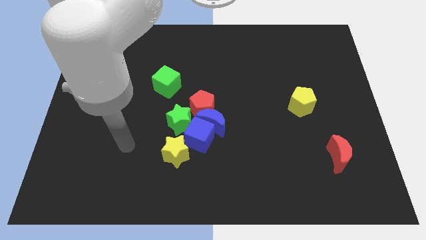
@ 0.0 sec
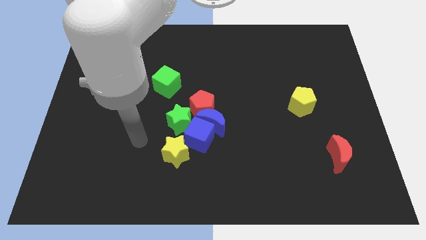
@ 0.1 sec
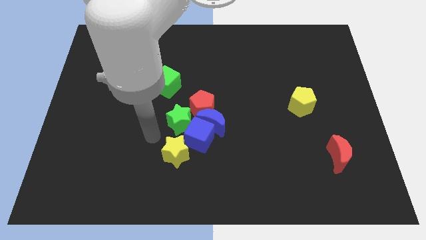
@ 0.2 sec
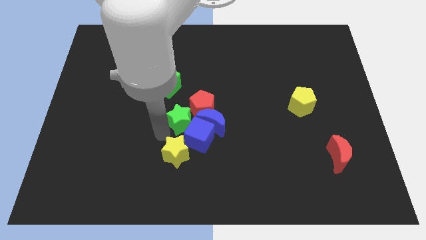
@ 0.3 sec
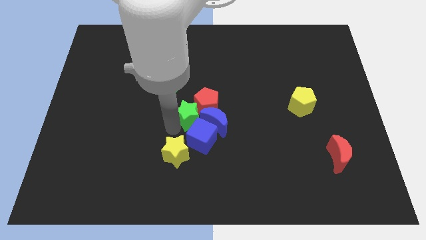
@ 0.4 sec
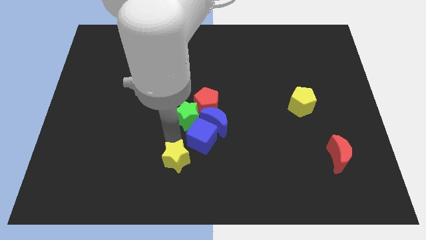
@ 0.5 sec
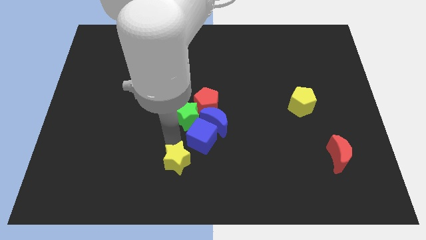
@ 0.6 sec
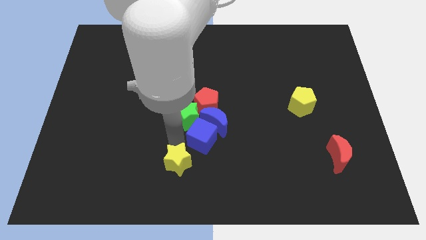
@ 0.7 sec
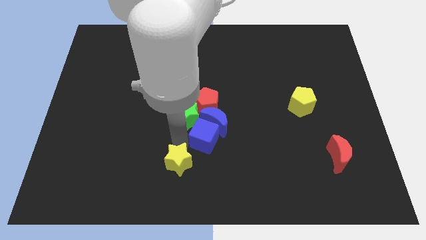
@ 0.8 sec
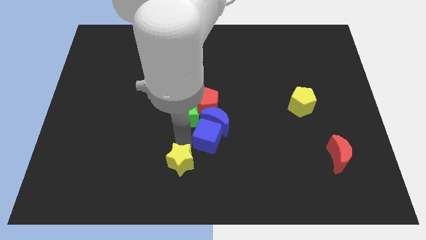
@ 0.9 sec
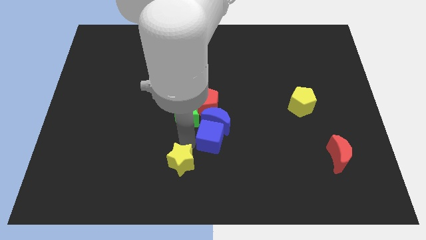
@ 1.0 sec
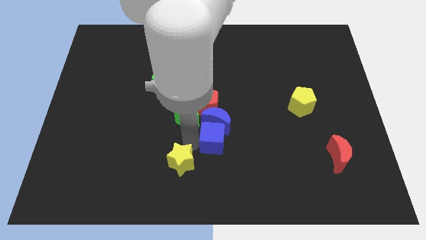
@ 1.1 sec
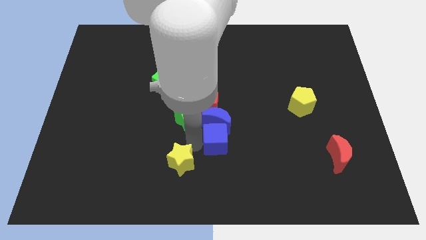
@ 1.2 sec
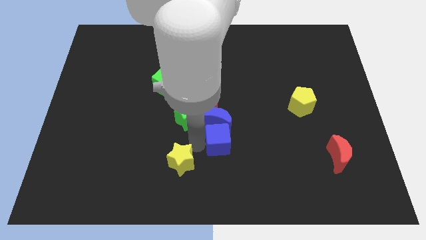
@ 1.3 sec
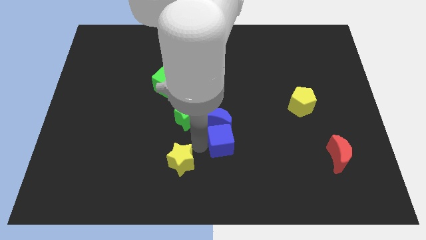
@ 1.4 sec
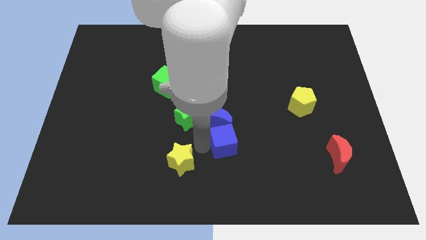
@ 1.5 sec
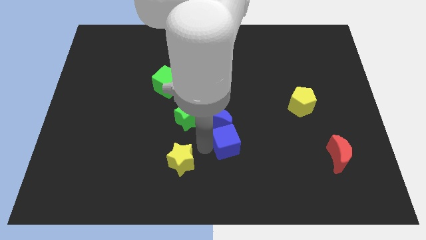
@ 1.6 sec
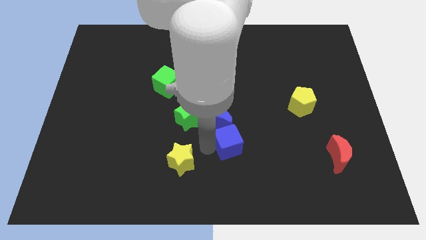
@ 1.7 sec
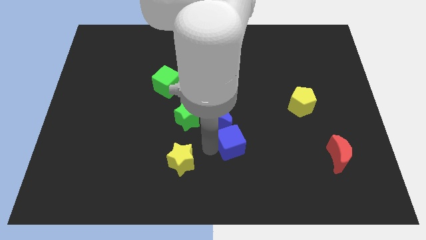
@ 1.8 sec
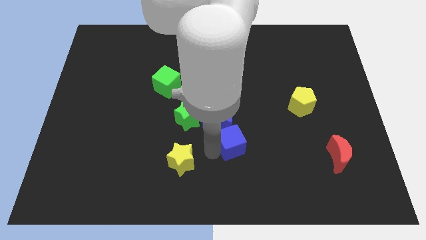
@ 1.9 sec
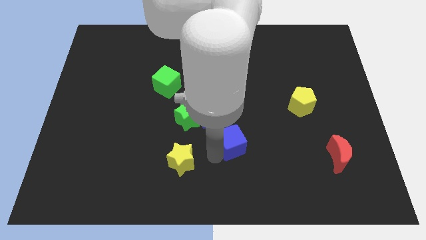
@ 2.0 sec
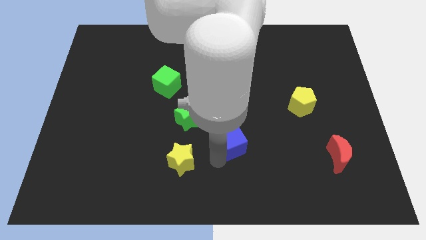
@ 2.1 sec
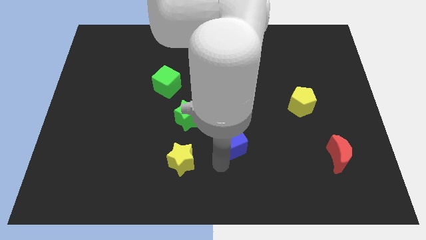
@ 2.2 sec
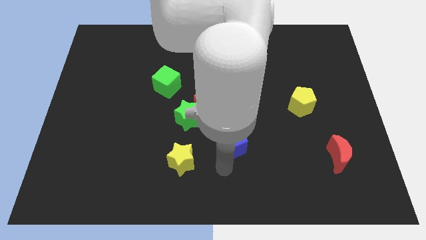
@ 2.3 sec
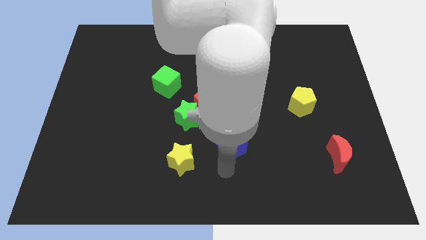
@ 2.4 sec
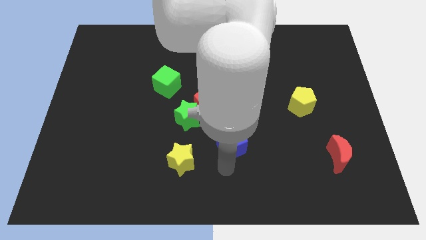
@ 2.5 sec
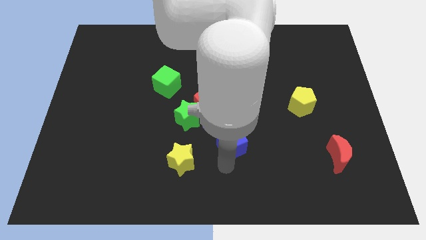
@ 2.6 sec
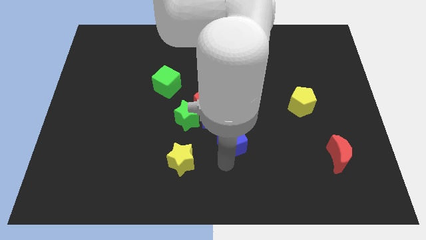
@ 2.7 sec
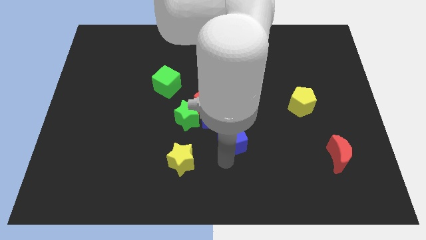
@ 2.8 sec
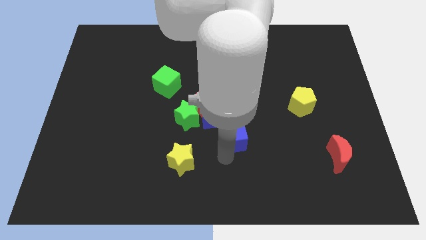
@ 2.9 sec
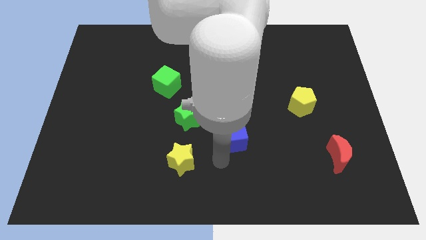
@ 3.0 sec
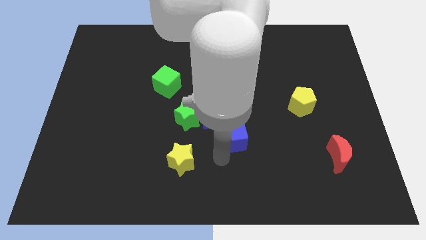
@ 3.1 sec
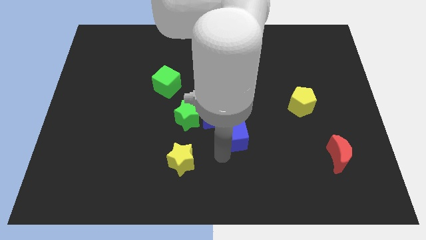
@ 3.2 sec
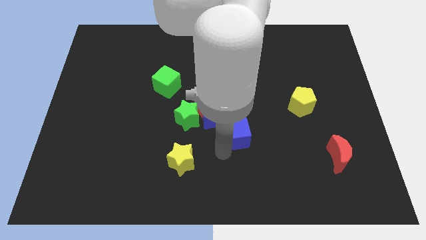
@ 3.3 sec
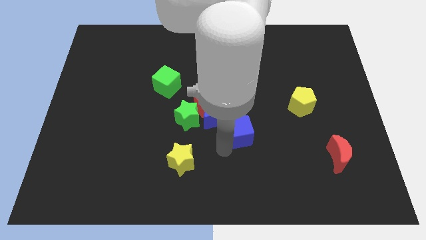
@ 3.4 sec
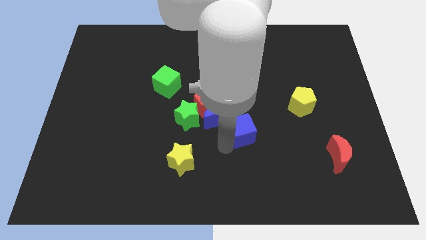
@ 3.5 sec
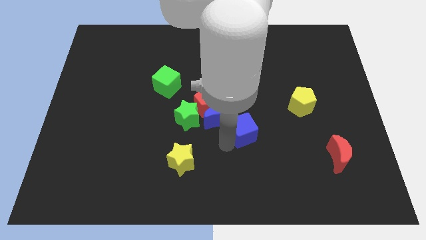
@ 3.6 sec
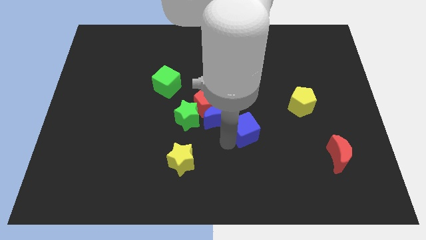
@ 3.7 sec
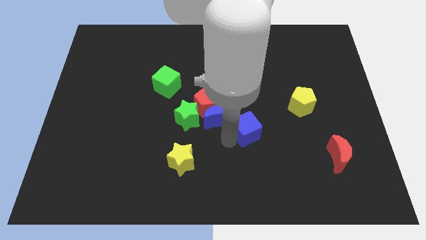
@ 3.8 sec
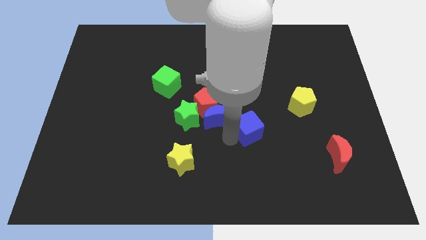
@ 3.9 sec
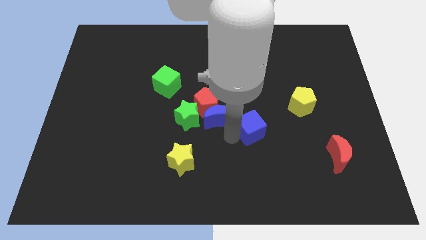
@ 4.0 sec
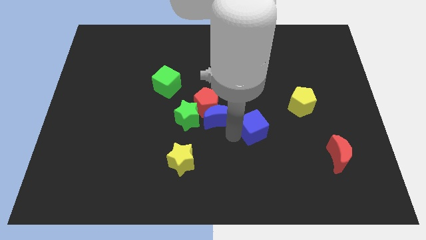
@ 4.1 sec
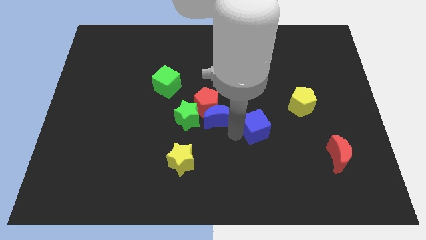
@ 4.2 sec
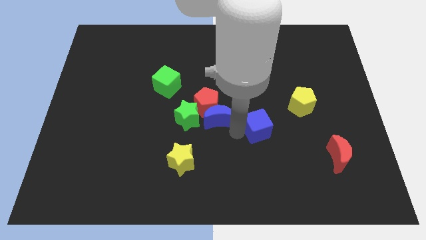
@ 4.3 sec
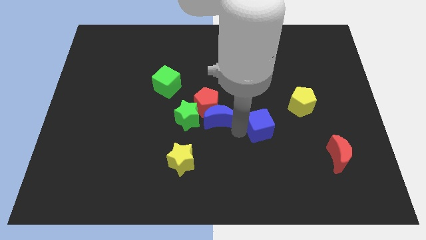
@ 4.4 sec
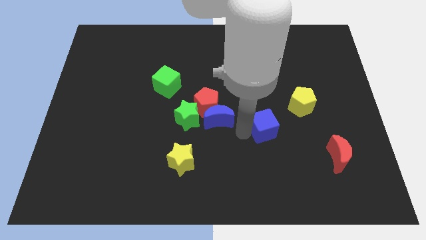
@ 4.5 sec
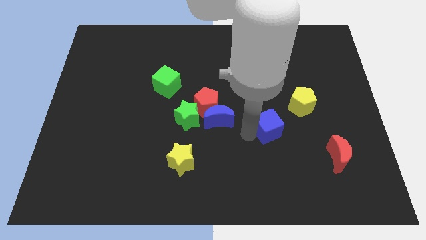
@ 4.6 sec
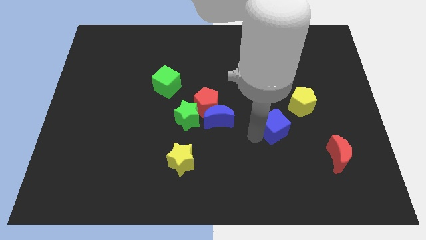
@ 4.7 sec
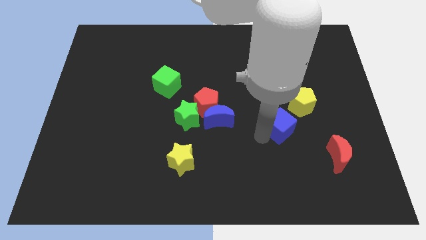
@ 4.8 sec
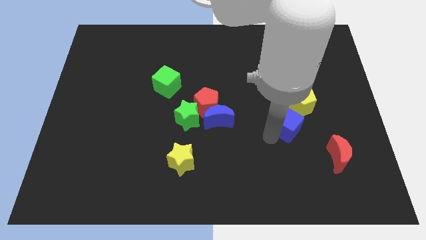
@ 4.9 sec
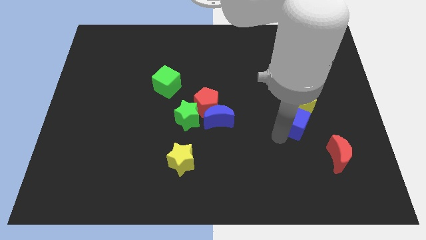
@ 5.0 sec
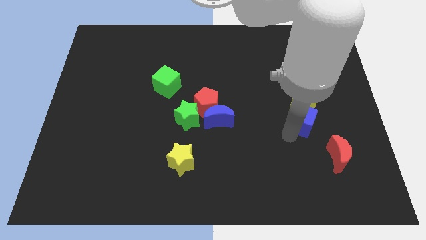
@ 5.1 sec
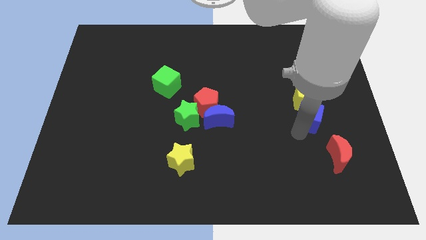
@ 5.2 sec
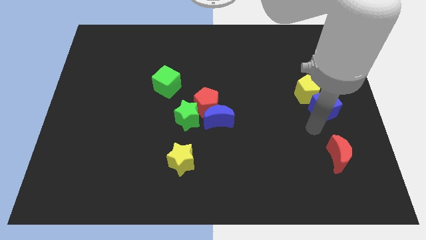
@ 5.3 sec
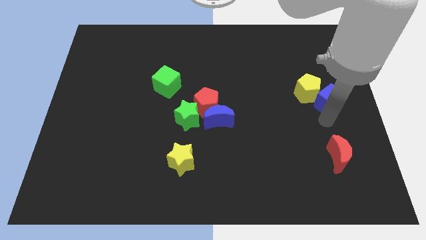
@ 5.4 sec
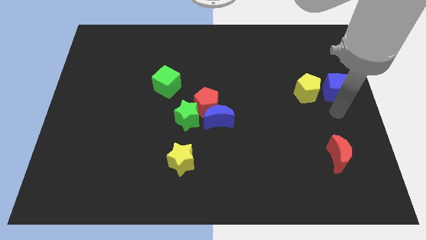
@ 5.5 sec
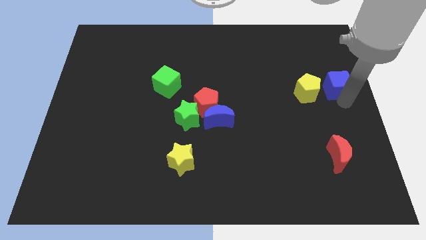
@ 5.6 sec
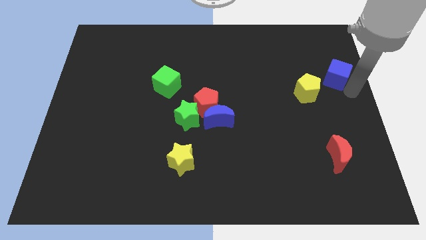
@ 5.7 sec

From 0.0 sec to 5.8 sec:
slide the blue cube upwards and to the right

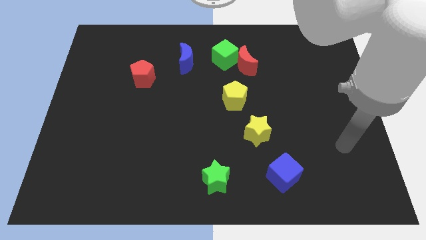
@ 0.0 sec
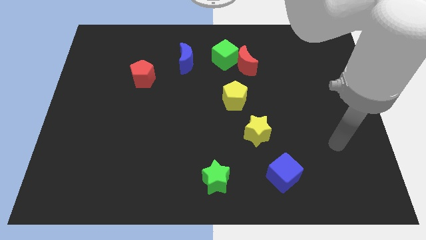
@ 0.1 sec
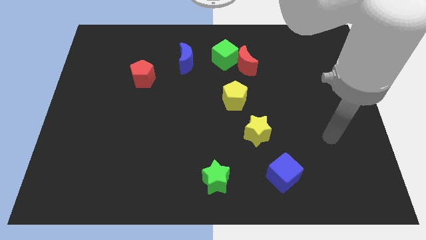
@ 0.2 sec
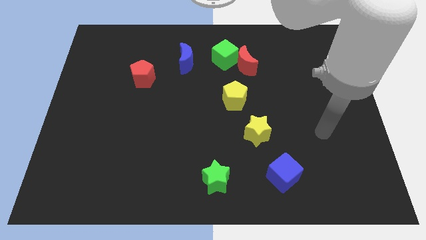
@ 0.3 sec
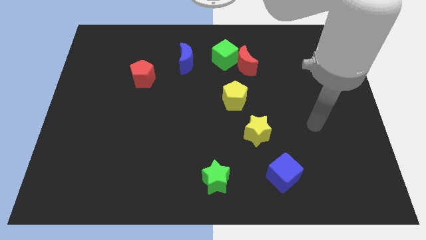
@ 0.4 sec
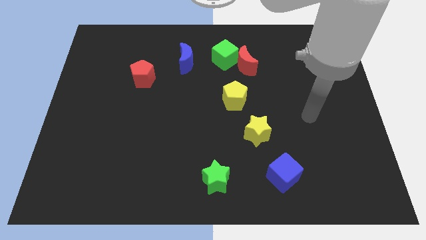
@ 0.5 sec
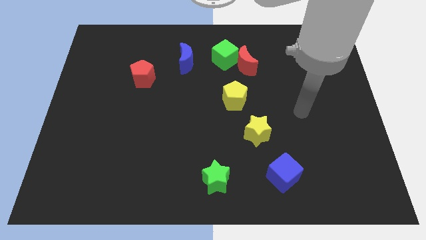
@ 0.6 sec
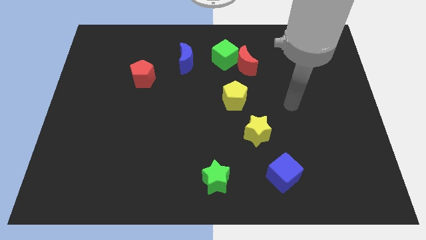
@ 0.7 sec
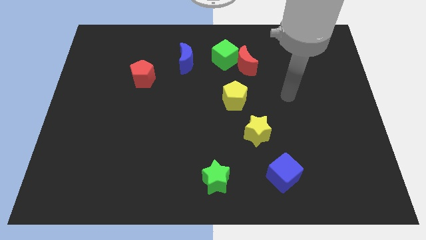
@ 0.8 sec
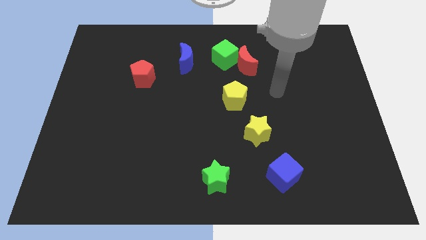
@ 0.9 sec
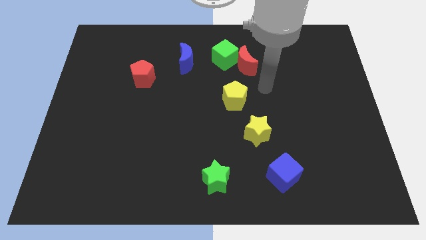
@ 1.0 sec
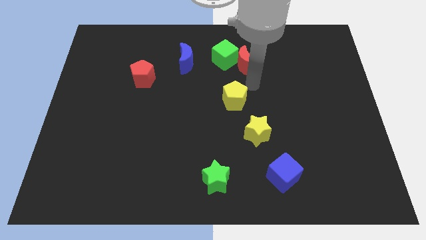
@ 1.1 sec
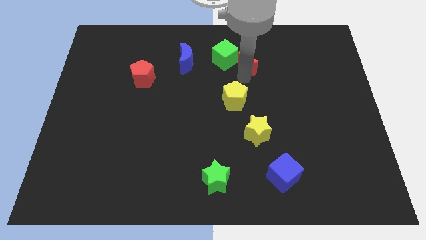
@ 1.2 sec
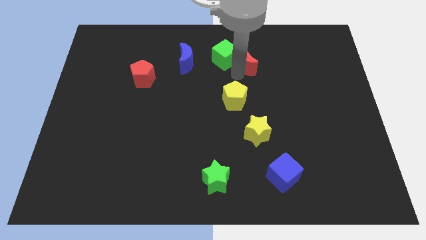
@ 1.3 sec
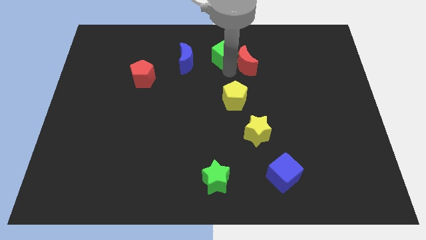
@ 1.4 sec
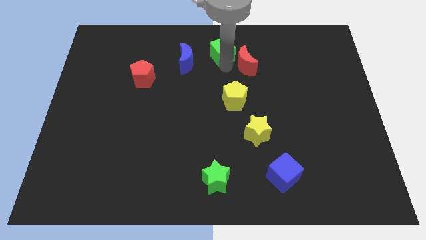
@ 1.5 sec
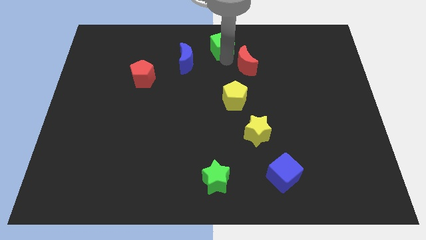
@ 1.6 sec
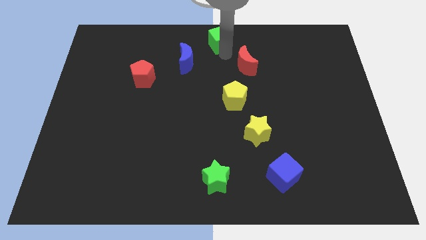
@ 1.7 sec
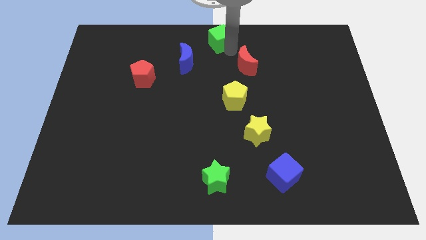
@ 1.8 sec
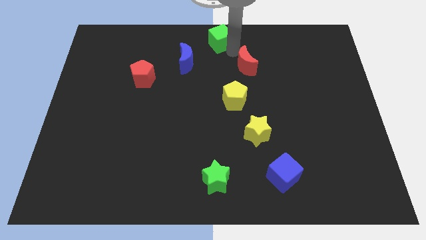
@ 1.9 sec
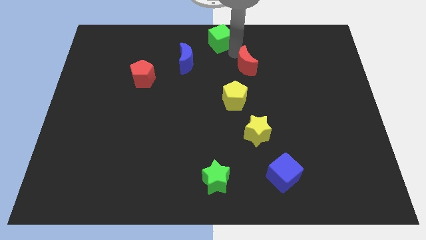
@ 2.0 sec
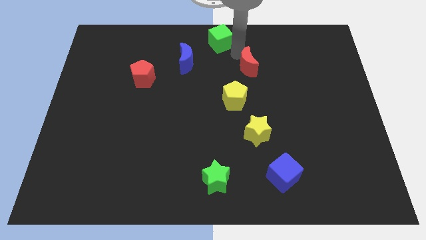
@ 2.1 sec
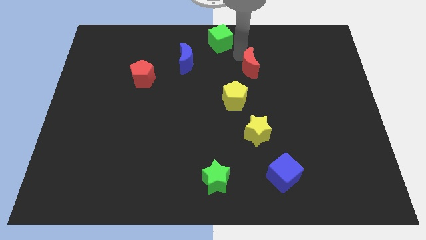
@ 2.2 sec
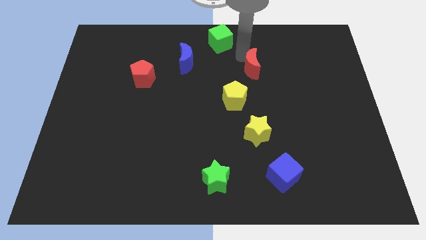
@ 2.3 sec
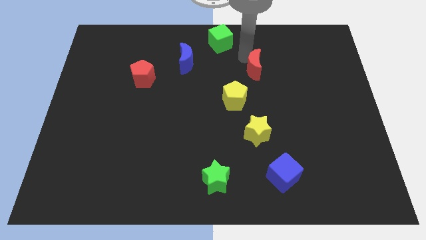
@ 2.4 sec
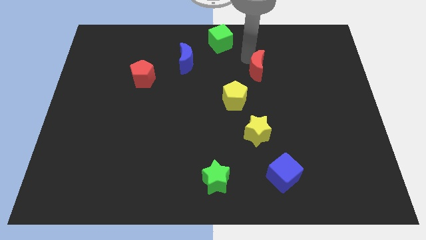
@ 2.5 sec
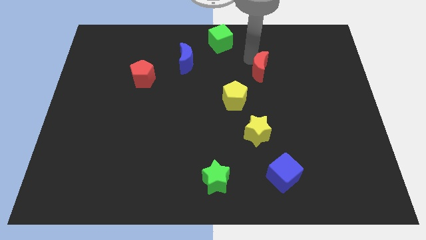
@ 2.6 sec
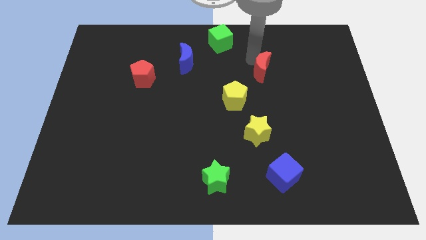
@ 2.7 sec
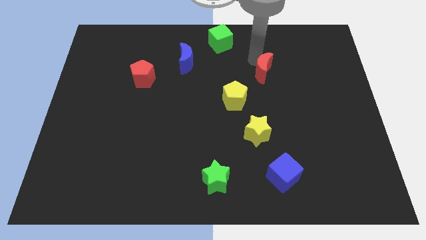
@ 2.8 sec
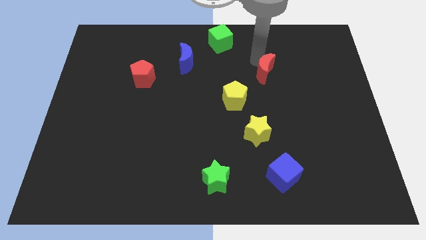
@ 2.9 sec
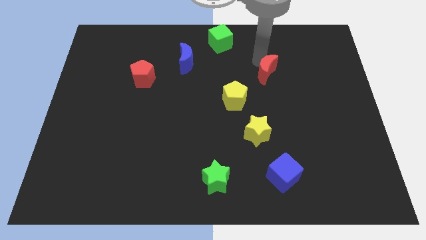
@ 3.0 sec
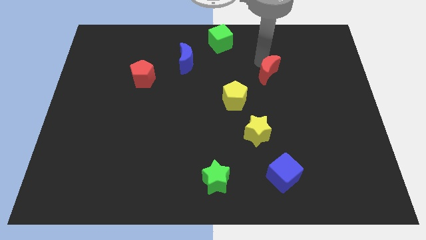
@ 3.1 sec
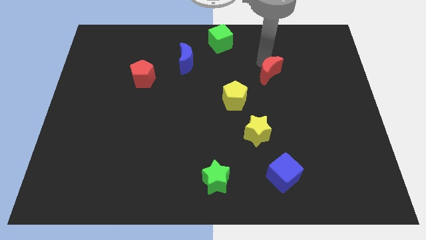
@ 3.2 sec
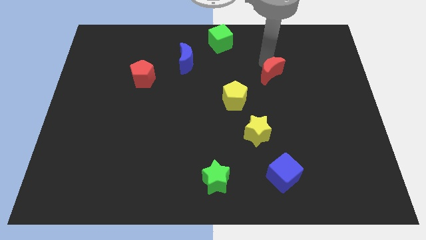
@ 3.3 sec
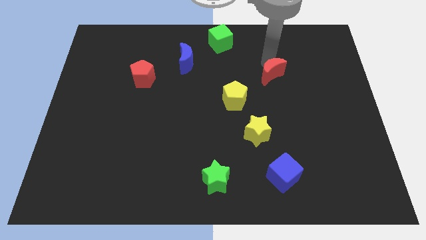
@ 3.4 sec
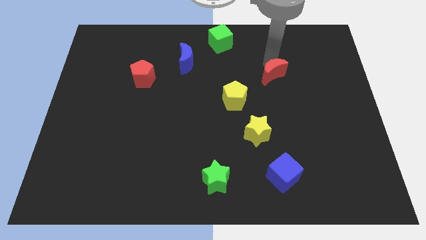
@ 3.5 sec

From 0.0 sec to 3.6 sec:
move the red moon diagonally down and to the right a little bit
